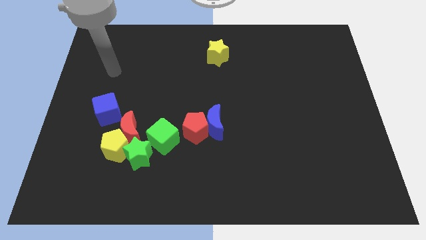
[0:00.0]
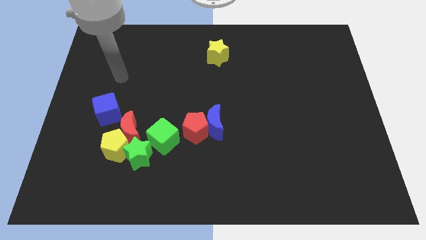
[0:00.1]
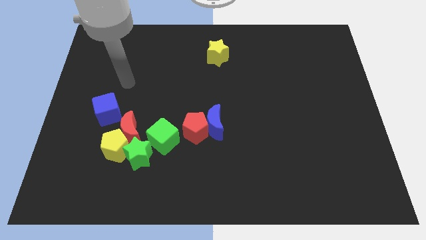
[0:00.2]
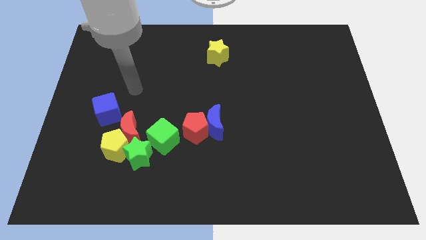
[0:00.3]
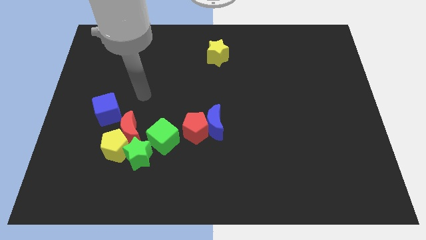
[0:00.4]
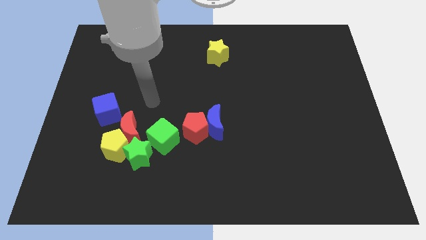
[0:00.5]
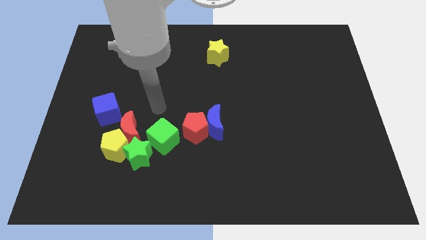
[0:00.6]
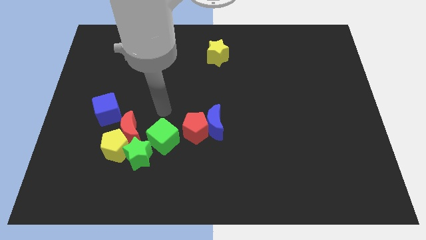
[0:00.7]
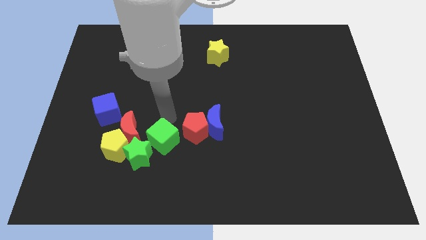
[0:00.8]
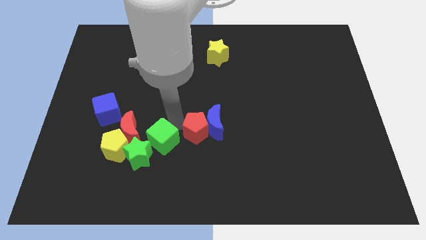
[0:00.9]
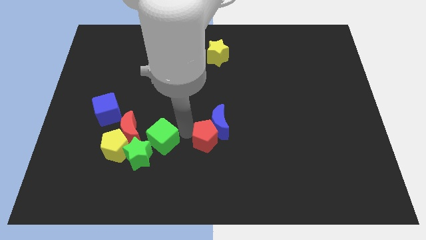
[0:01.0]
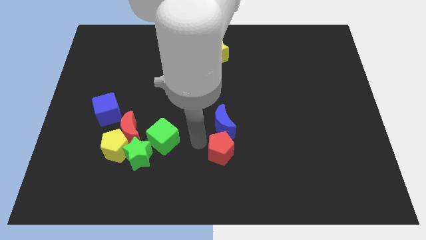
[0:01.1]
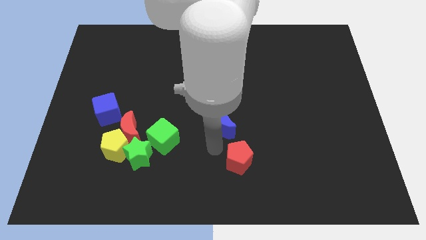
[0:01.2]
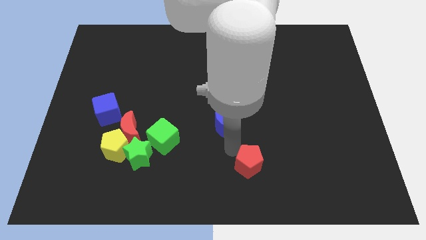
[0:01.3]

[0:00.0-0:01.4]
separate the blue moon from the red pentagon

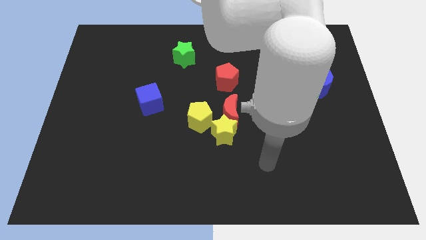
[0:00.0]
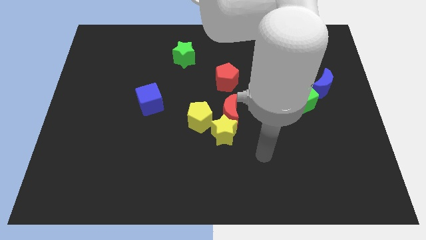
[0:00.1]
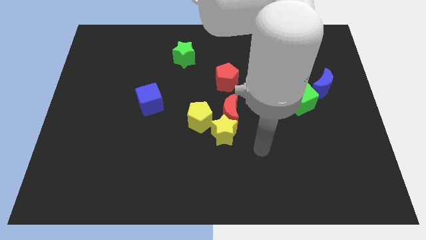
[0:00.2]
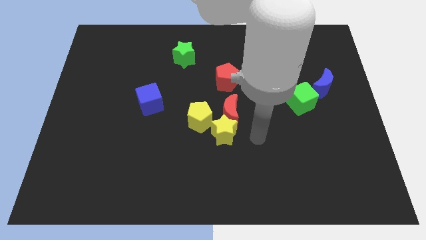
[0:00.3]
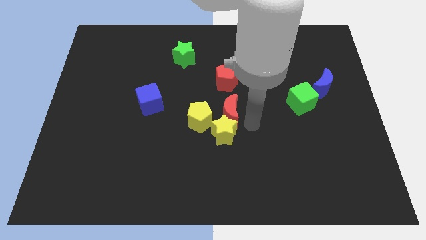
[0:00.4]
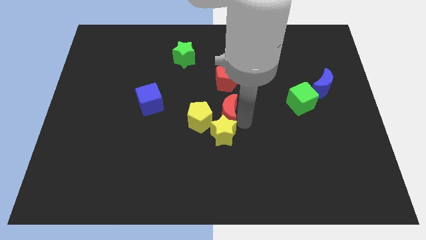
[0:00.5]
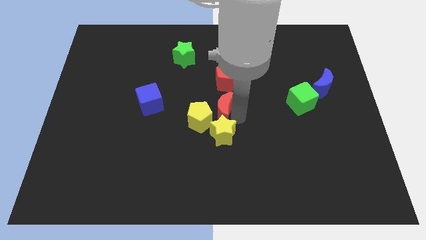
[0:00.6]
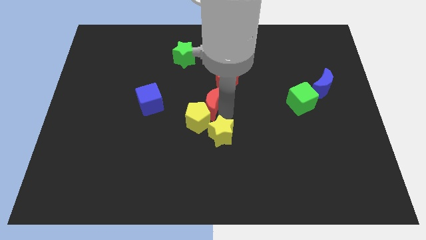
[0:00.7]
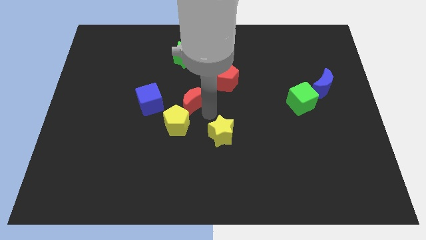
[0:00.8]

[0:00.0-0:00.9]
pull the yellow star apart from the red moon and yellow pentagon

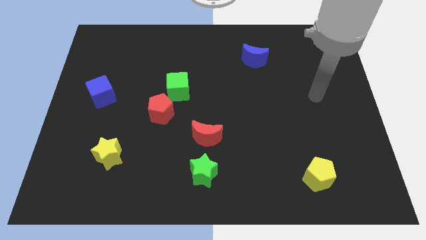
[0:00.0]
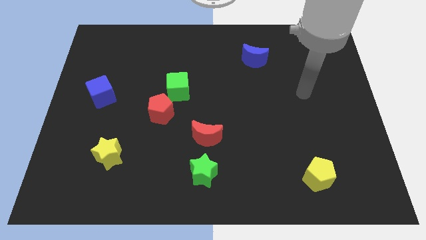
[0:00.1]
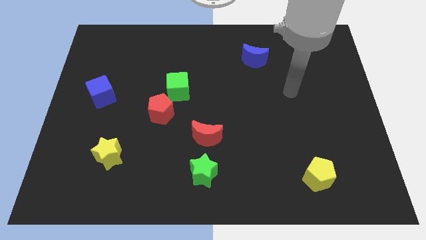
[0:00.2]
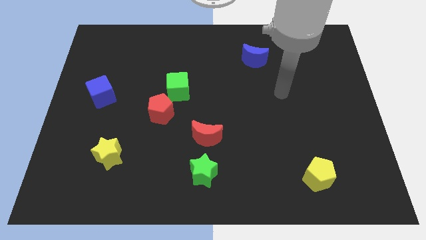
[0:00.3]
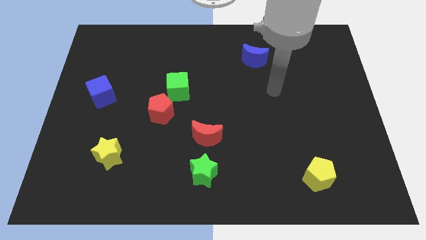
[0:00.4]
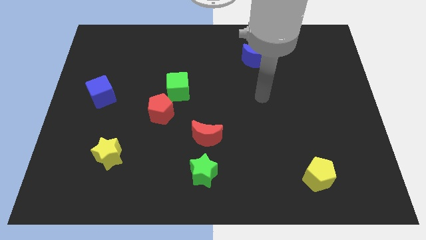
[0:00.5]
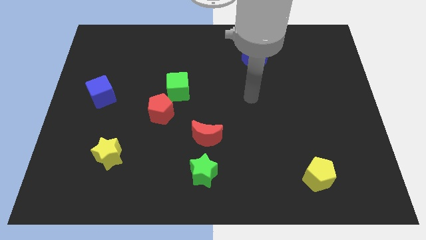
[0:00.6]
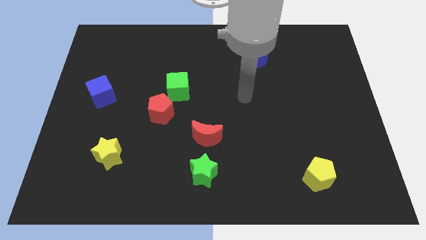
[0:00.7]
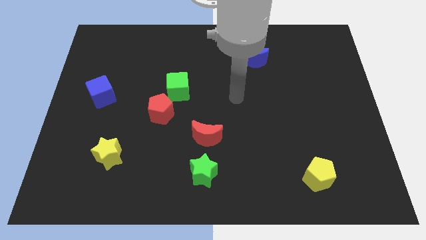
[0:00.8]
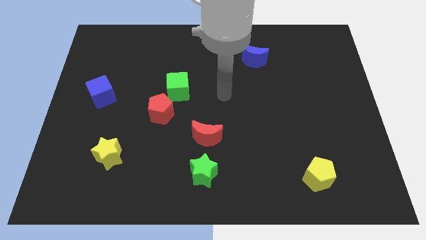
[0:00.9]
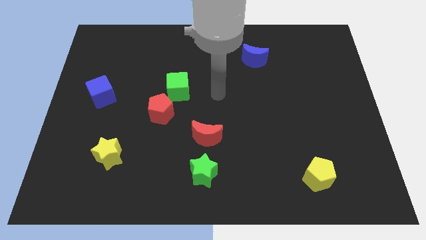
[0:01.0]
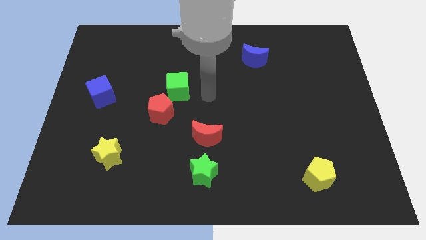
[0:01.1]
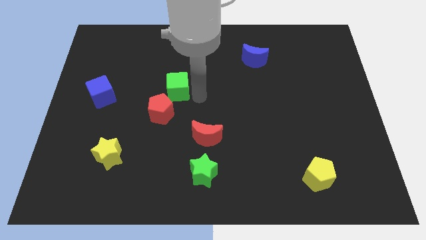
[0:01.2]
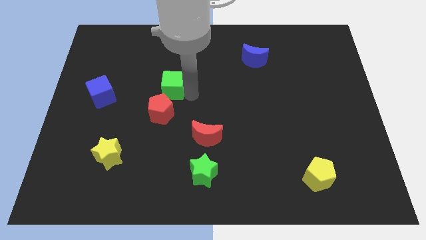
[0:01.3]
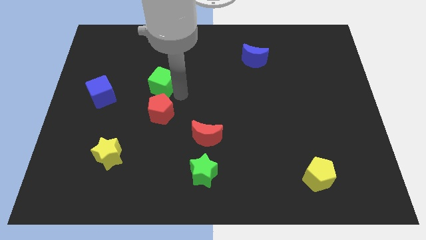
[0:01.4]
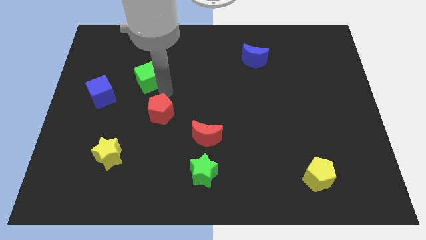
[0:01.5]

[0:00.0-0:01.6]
separate the red pentagon from the green cube

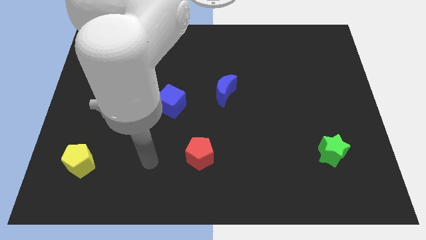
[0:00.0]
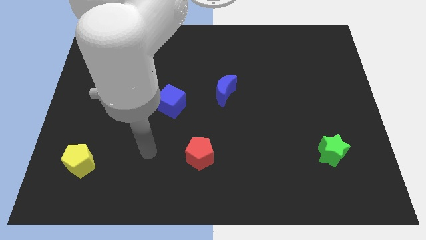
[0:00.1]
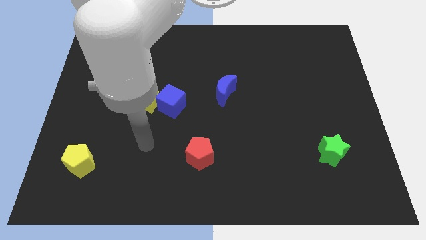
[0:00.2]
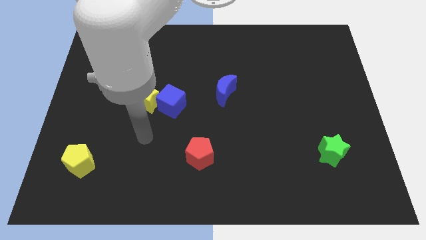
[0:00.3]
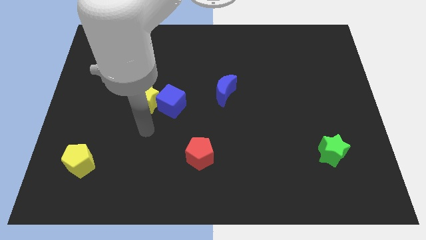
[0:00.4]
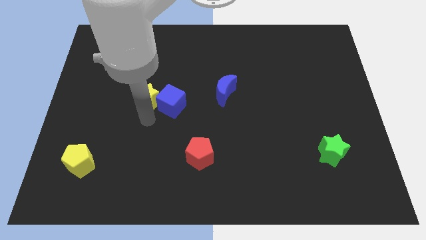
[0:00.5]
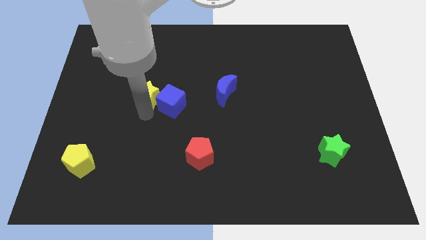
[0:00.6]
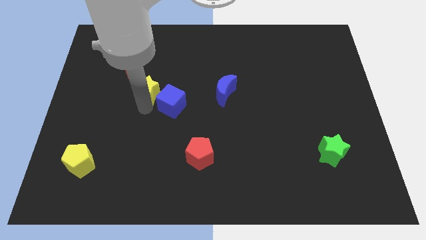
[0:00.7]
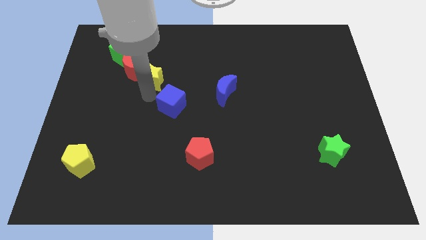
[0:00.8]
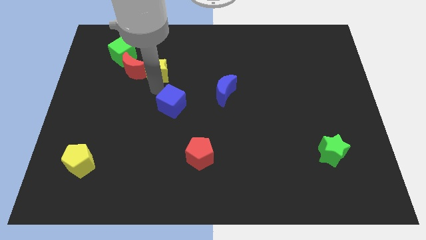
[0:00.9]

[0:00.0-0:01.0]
move the blue cube away from the yellow star

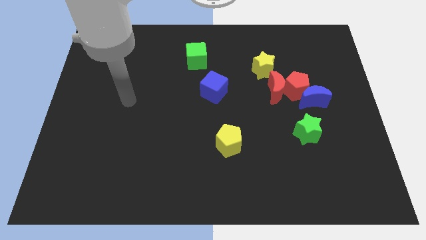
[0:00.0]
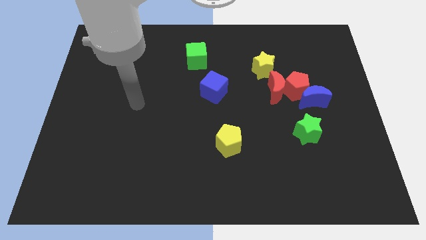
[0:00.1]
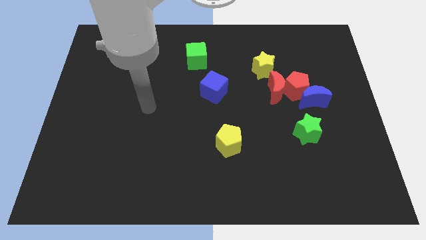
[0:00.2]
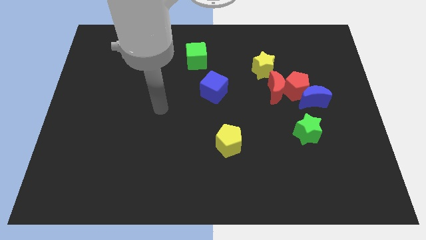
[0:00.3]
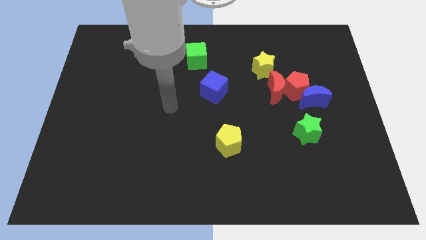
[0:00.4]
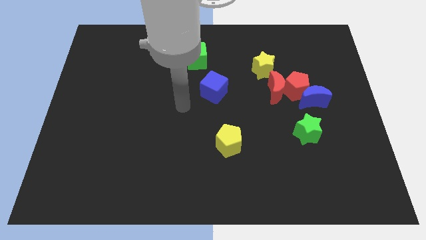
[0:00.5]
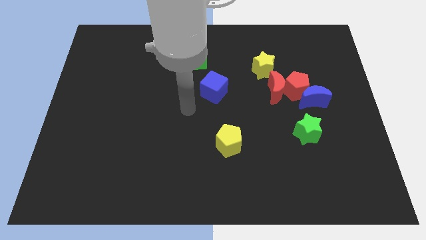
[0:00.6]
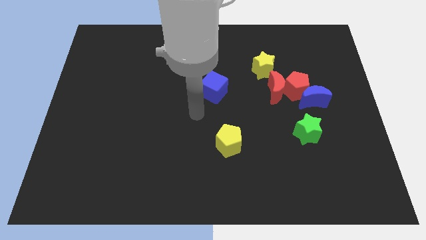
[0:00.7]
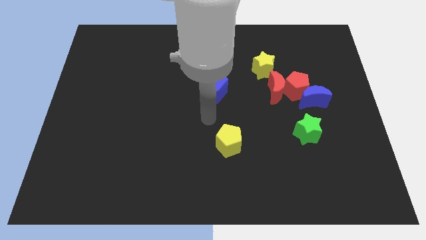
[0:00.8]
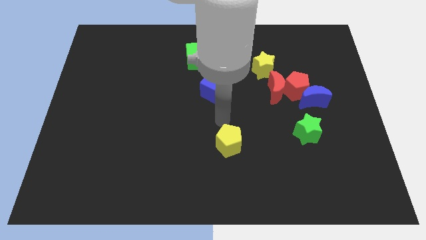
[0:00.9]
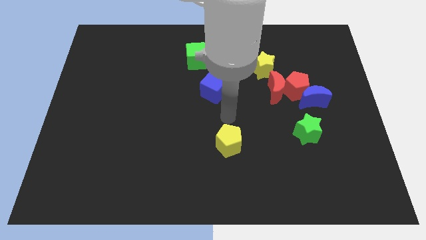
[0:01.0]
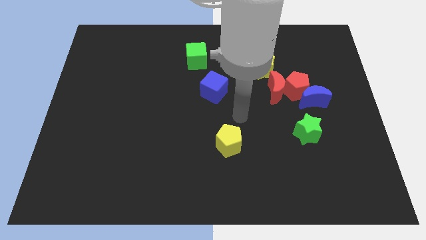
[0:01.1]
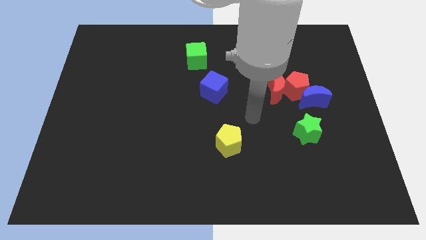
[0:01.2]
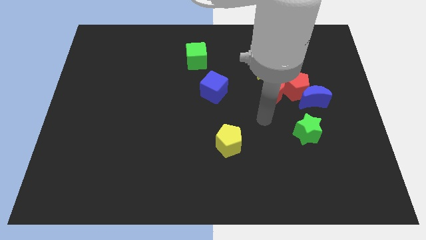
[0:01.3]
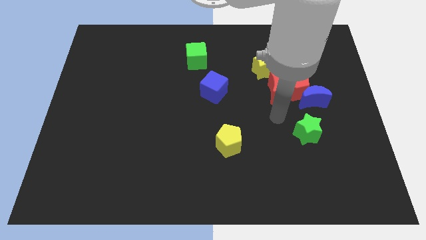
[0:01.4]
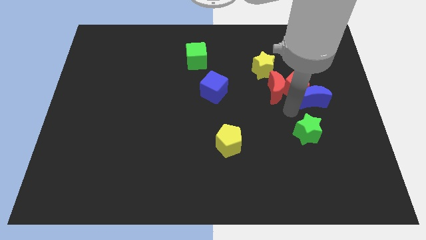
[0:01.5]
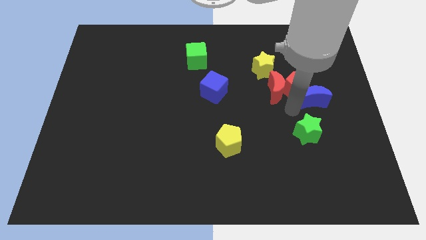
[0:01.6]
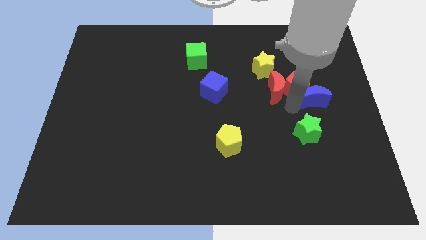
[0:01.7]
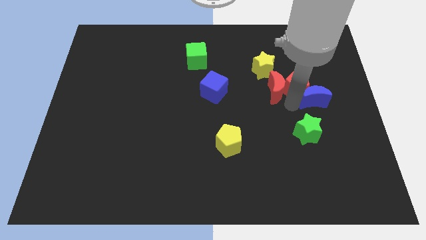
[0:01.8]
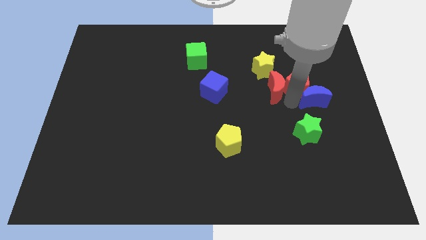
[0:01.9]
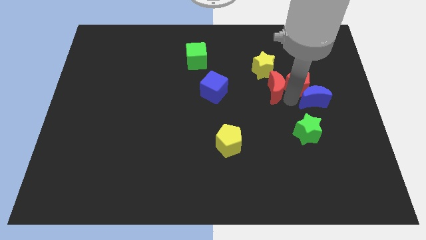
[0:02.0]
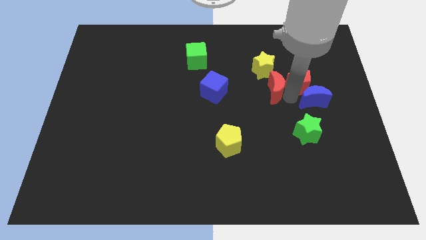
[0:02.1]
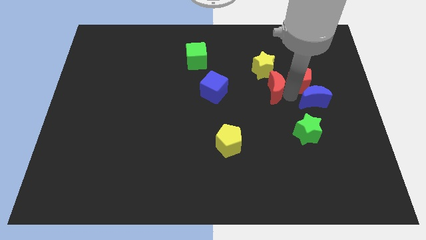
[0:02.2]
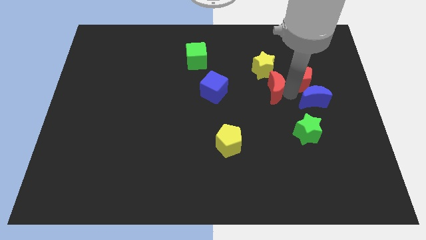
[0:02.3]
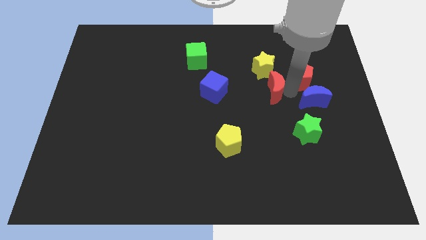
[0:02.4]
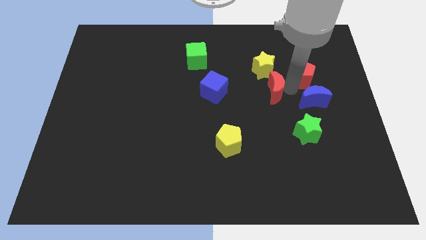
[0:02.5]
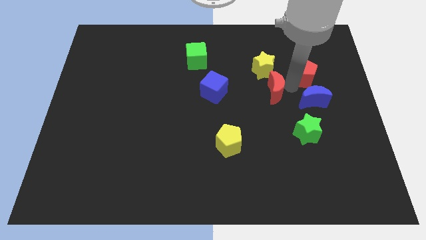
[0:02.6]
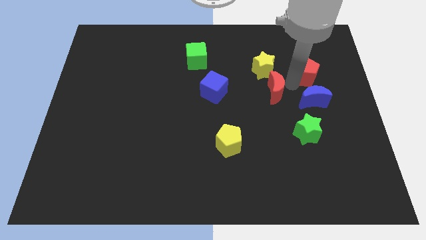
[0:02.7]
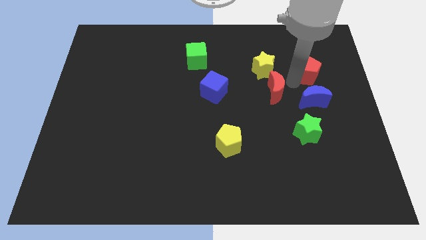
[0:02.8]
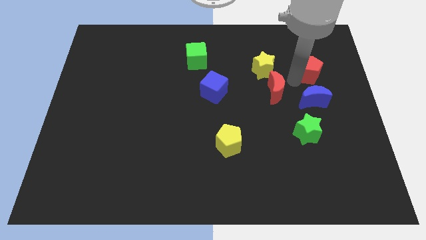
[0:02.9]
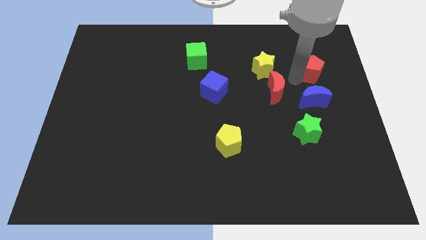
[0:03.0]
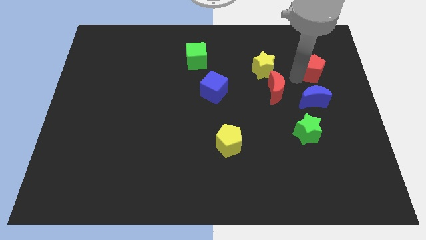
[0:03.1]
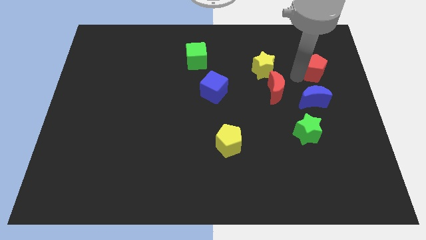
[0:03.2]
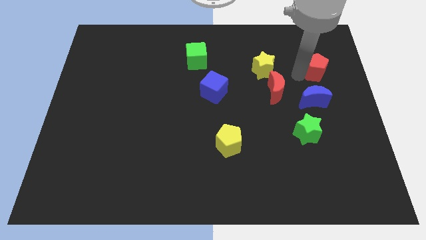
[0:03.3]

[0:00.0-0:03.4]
separate the red pentagon from the red moon and blue moon

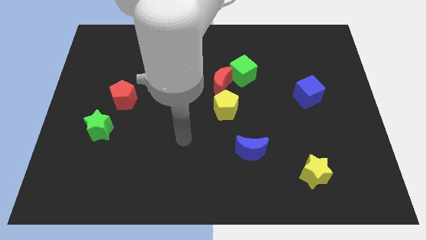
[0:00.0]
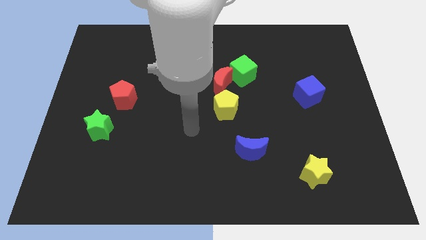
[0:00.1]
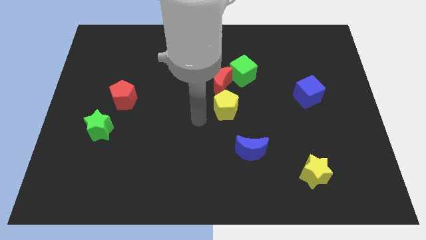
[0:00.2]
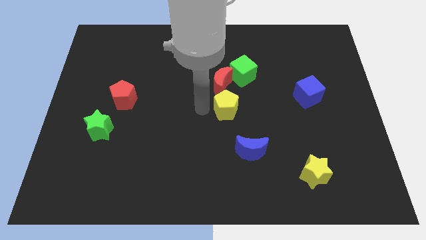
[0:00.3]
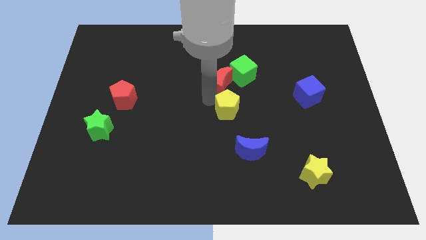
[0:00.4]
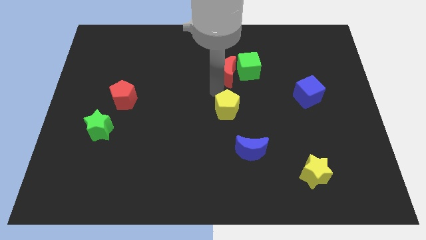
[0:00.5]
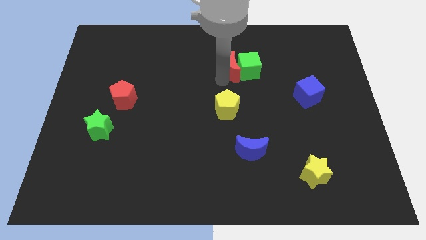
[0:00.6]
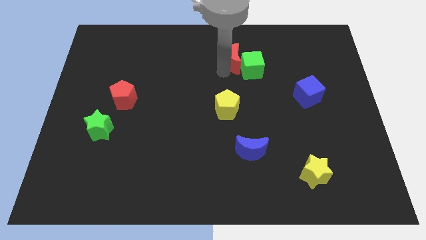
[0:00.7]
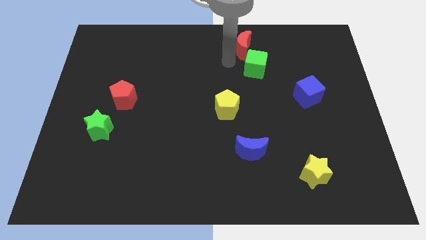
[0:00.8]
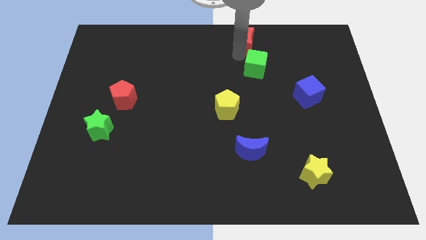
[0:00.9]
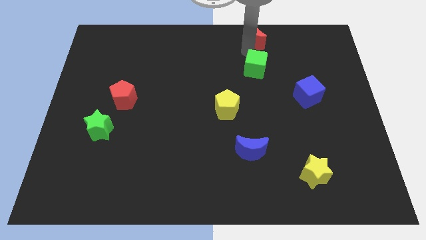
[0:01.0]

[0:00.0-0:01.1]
move the green cube away from the red moon
